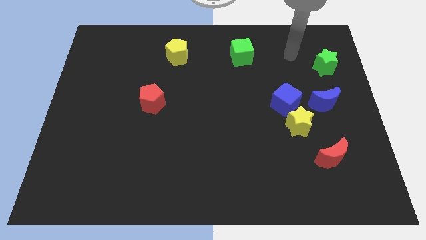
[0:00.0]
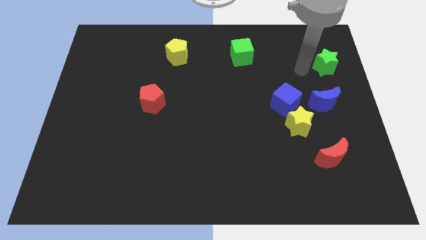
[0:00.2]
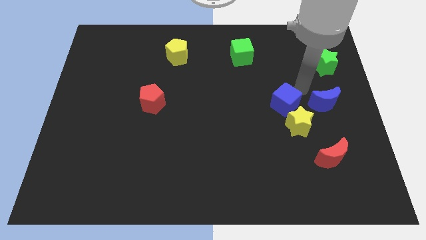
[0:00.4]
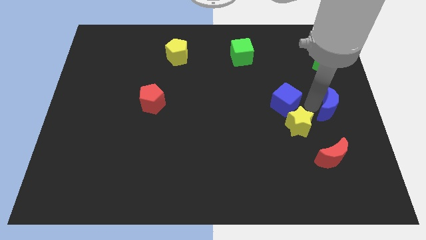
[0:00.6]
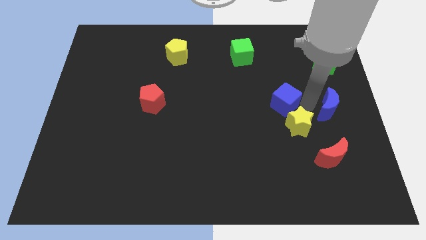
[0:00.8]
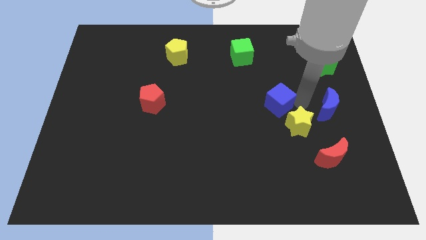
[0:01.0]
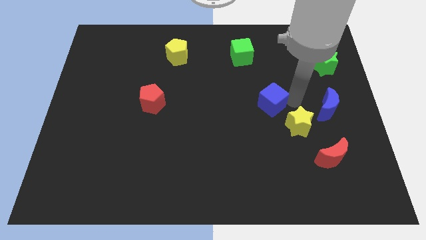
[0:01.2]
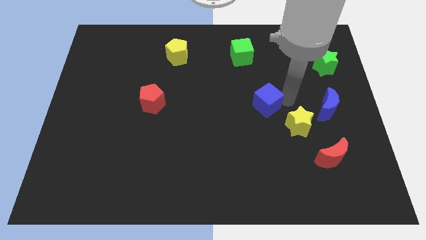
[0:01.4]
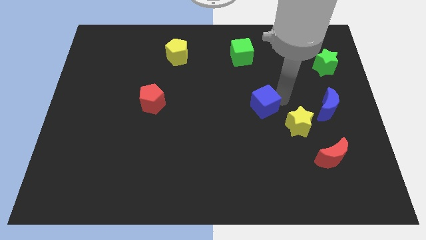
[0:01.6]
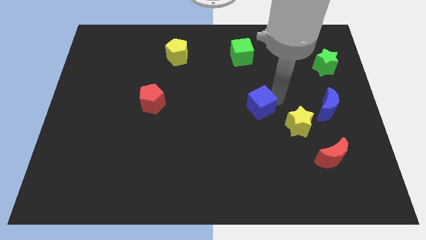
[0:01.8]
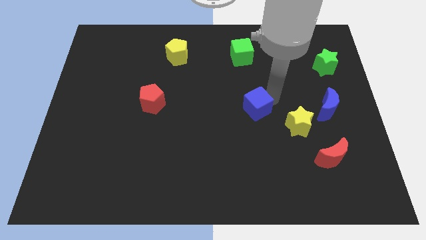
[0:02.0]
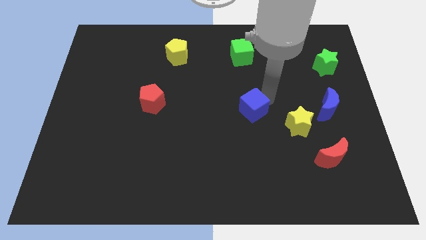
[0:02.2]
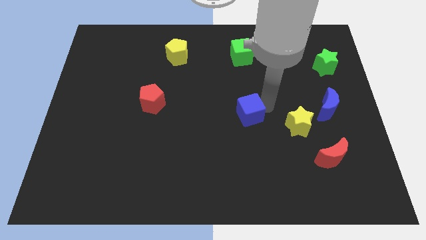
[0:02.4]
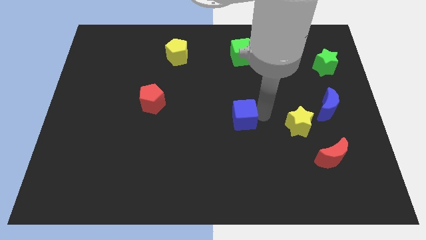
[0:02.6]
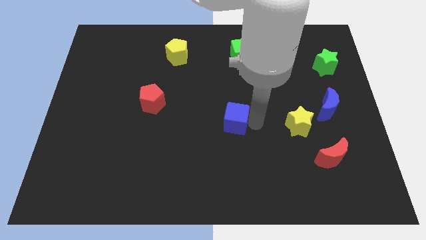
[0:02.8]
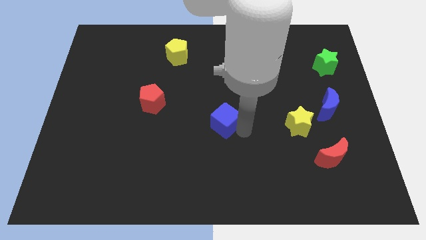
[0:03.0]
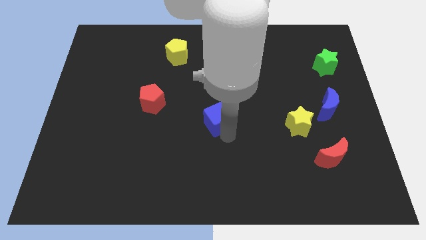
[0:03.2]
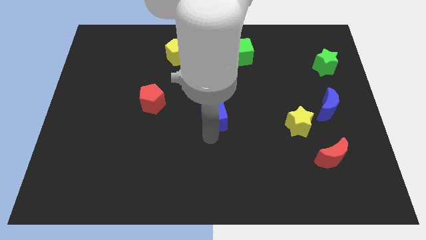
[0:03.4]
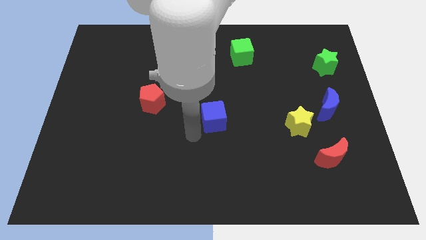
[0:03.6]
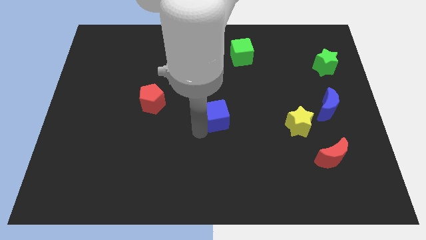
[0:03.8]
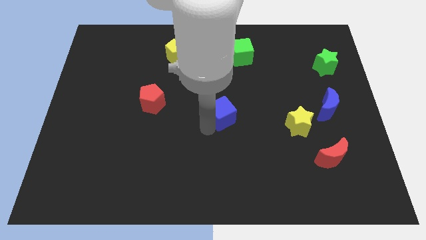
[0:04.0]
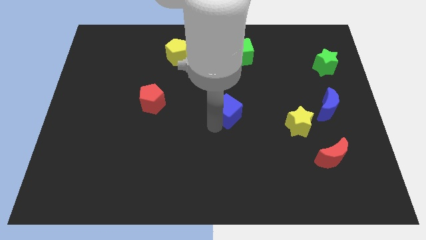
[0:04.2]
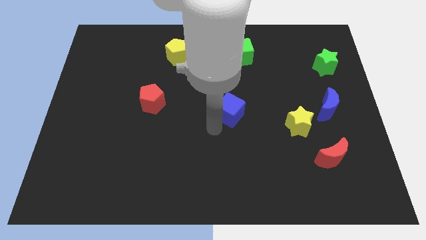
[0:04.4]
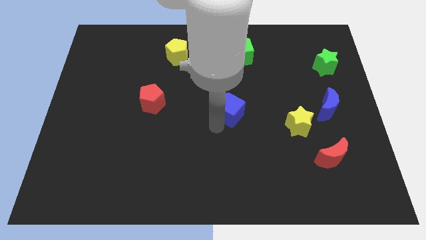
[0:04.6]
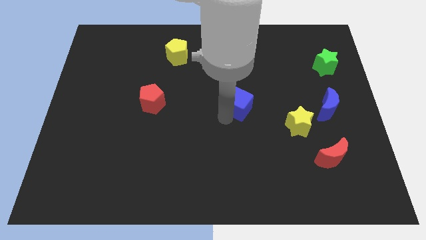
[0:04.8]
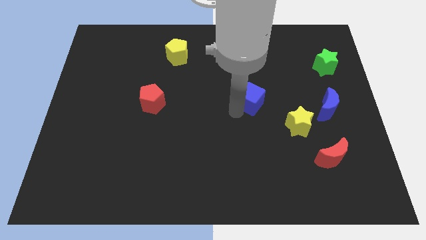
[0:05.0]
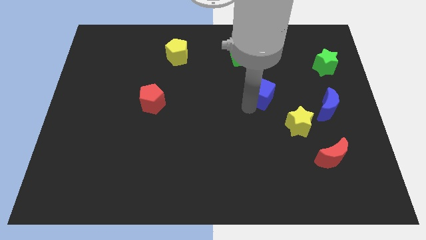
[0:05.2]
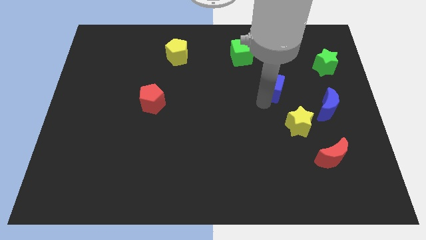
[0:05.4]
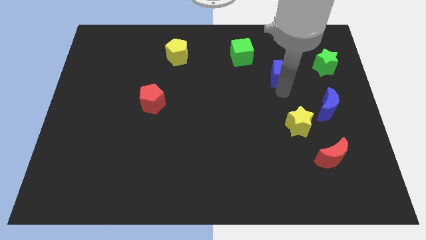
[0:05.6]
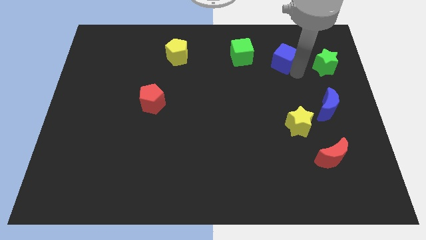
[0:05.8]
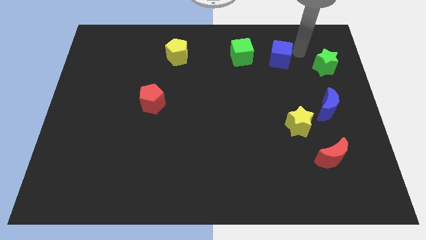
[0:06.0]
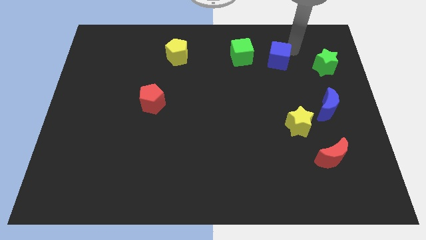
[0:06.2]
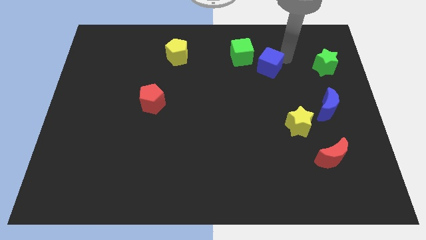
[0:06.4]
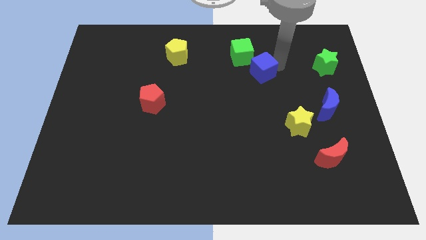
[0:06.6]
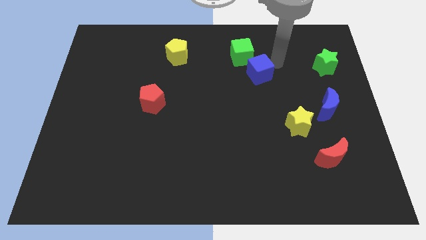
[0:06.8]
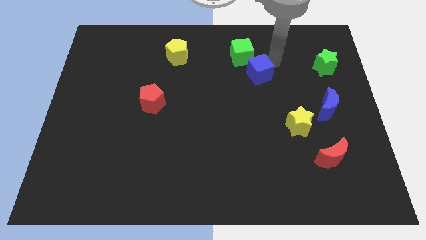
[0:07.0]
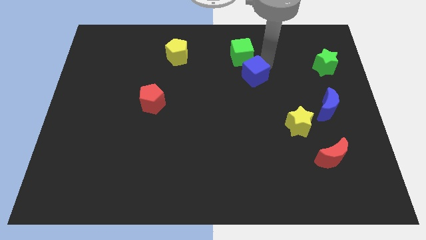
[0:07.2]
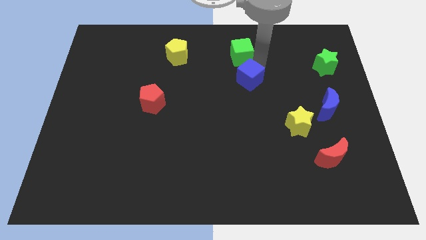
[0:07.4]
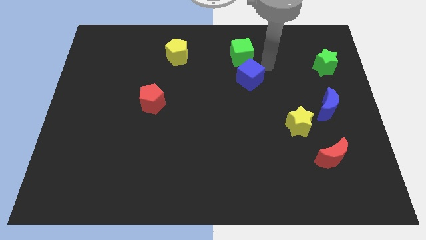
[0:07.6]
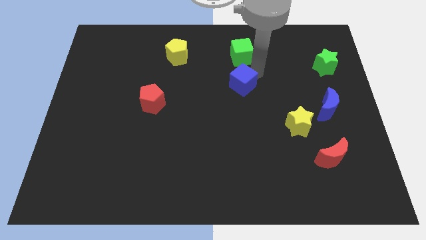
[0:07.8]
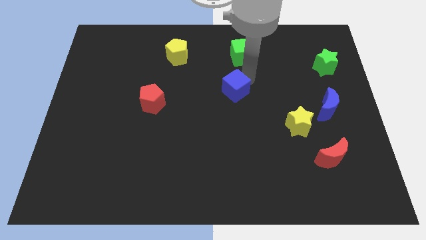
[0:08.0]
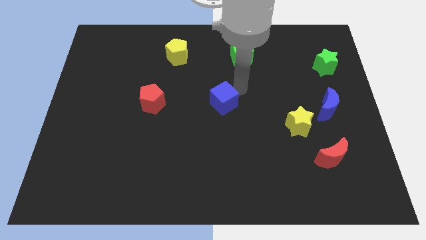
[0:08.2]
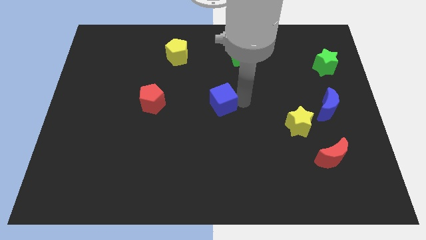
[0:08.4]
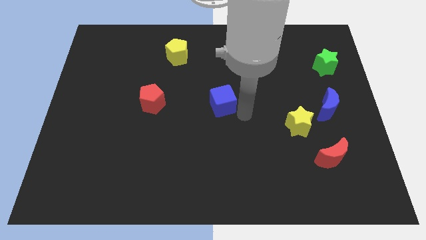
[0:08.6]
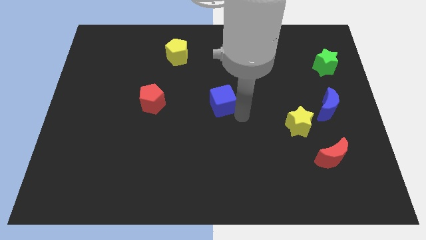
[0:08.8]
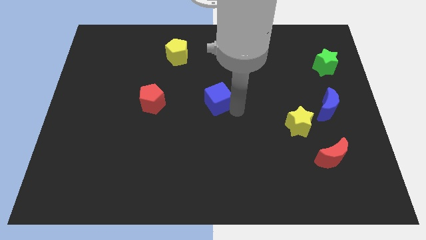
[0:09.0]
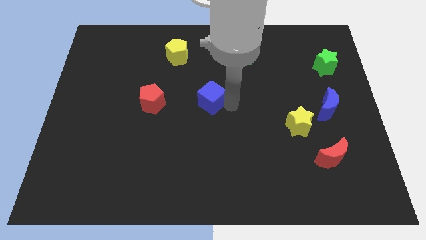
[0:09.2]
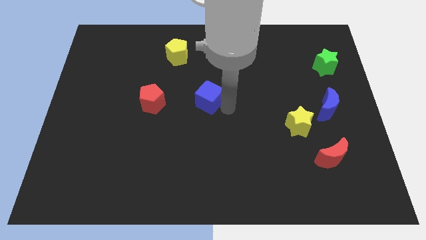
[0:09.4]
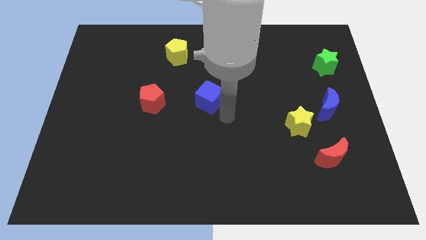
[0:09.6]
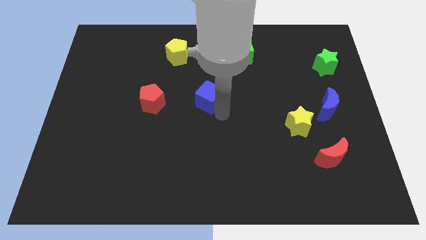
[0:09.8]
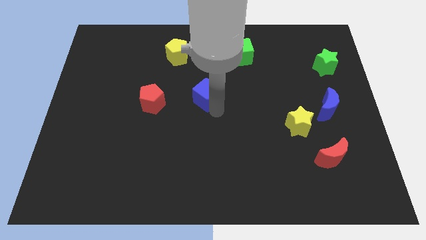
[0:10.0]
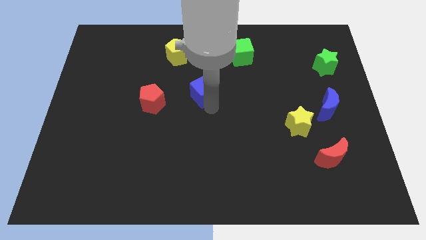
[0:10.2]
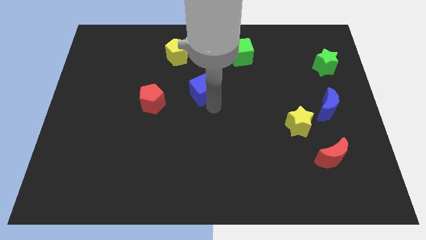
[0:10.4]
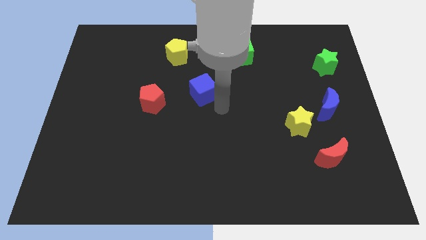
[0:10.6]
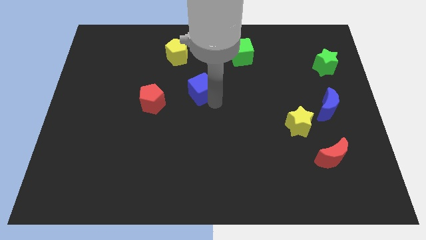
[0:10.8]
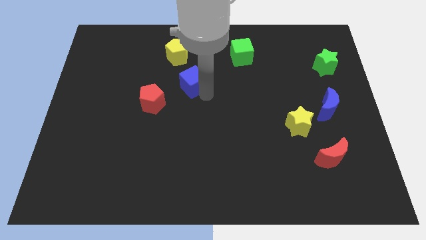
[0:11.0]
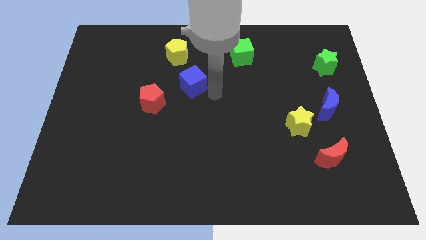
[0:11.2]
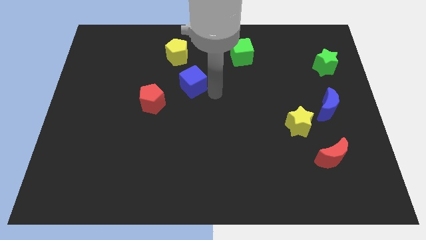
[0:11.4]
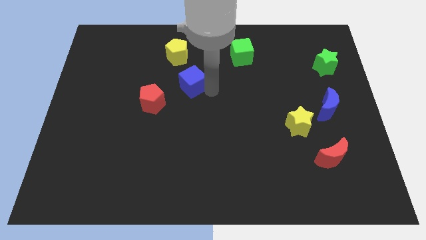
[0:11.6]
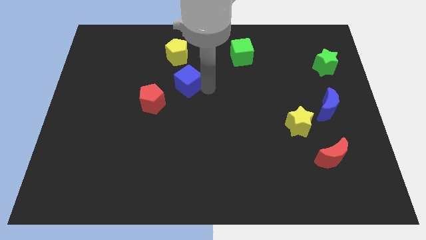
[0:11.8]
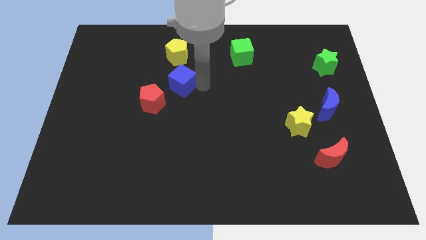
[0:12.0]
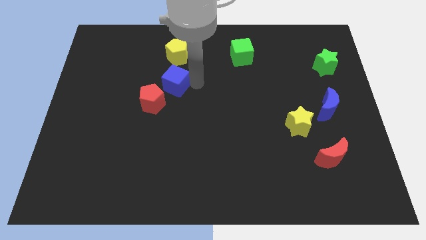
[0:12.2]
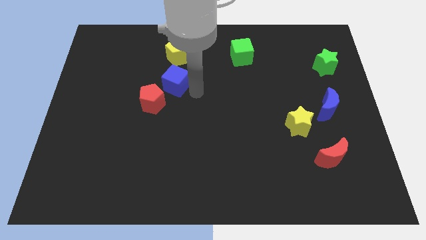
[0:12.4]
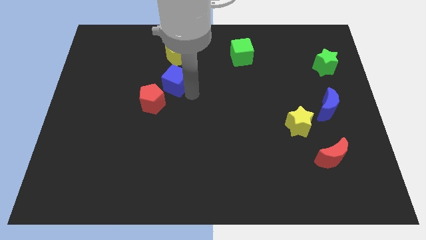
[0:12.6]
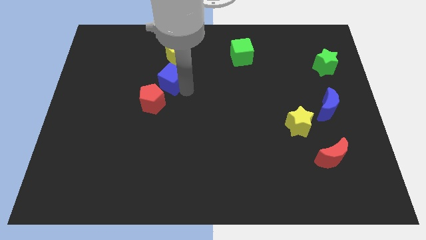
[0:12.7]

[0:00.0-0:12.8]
move the blue cube to the top side of the red pentagon

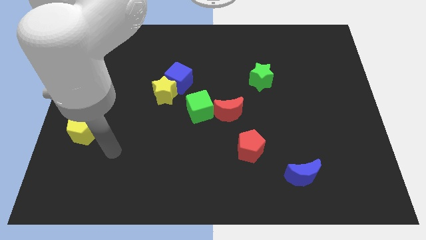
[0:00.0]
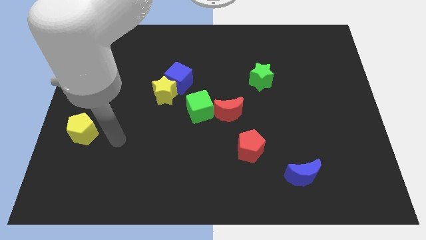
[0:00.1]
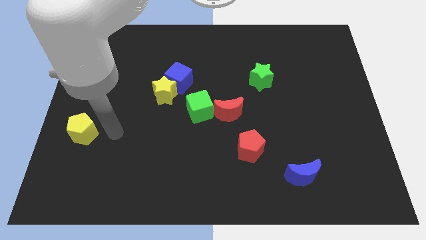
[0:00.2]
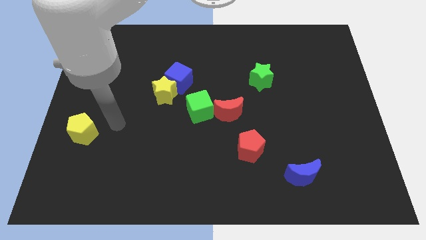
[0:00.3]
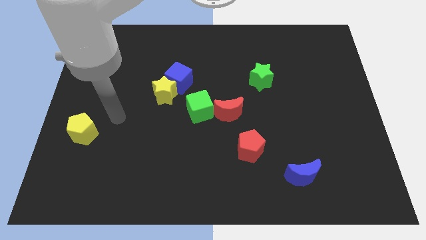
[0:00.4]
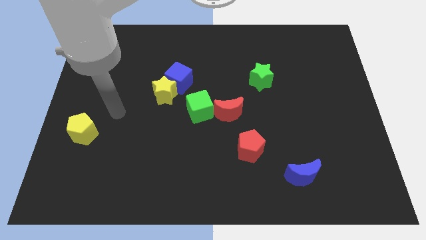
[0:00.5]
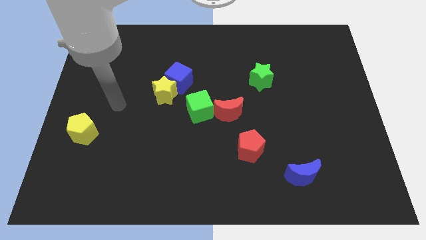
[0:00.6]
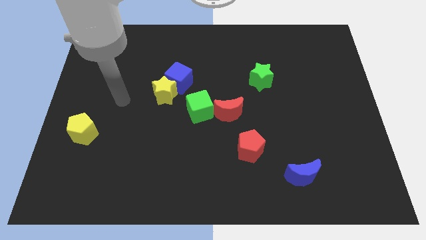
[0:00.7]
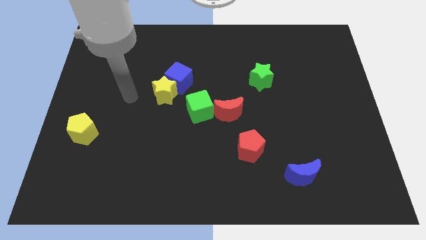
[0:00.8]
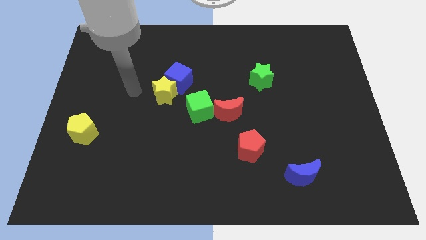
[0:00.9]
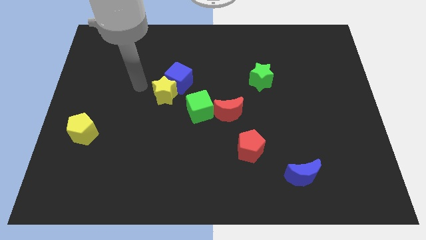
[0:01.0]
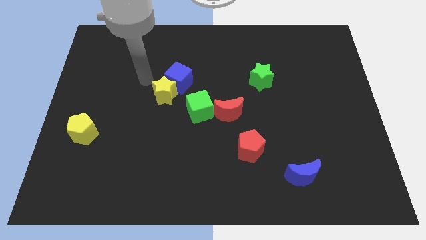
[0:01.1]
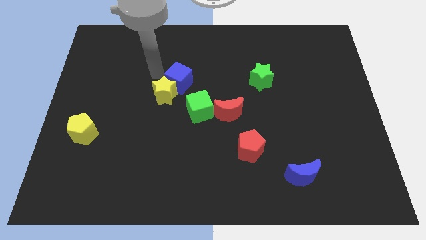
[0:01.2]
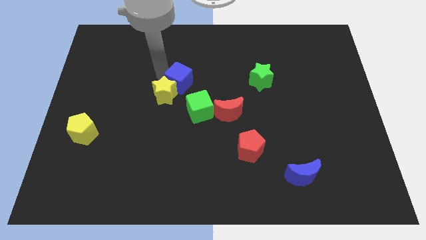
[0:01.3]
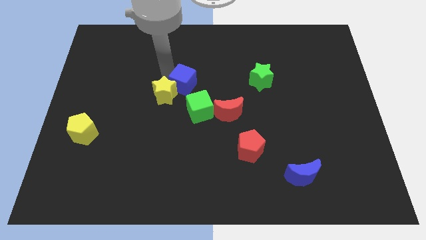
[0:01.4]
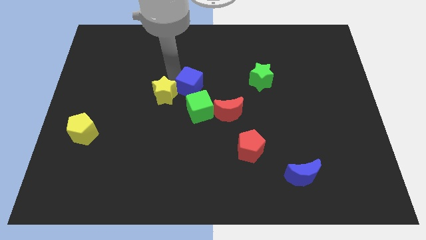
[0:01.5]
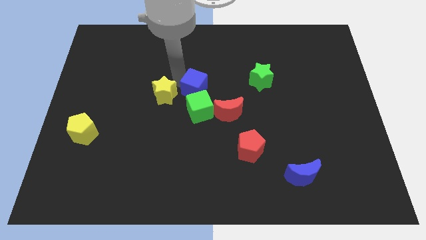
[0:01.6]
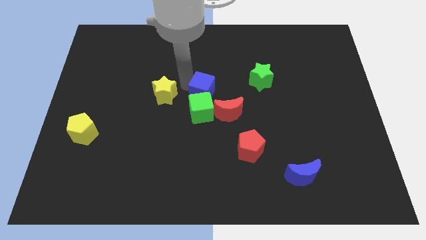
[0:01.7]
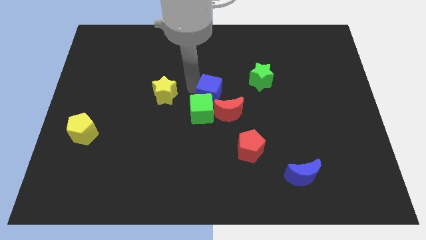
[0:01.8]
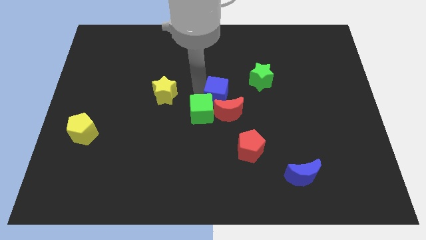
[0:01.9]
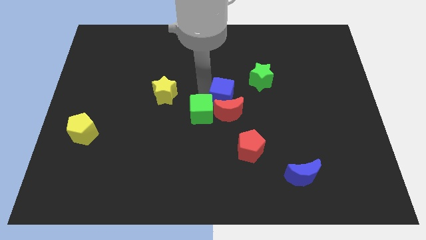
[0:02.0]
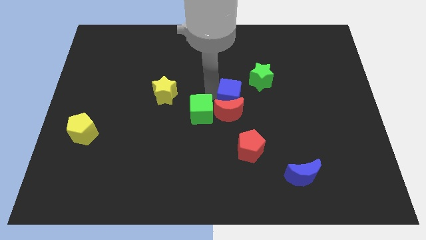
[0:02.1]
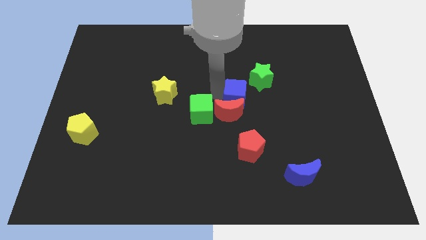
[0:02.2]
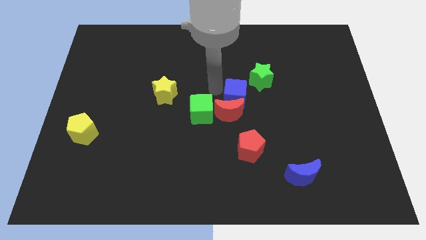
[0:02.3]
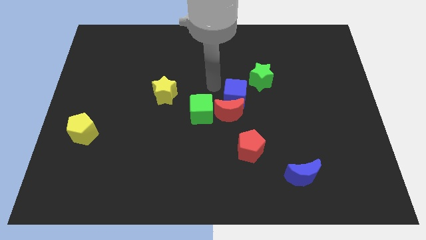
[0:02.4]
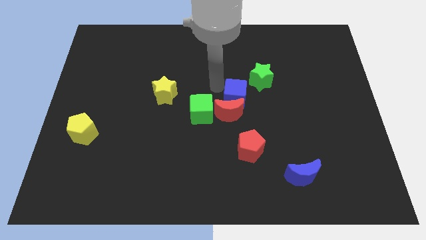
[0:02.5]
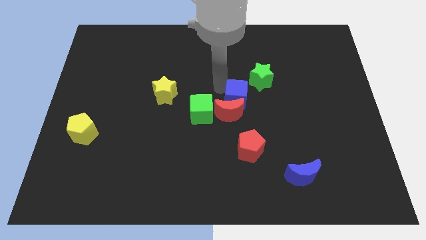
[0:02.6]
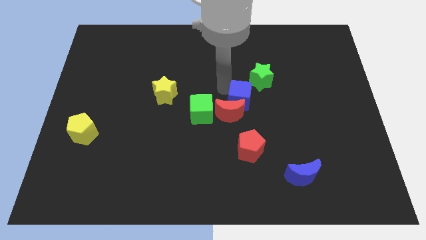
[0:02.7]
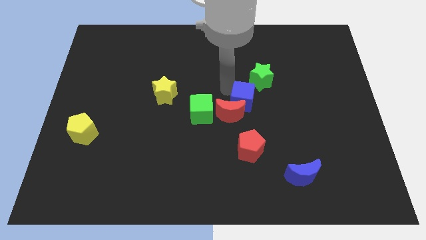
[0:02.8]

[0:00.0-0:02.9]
slide the blue cube below the green star
